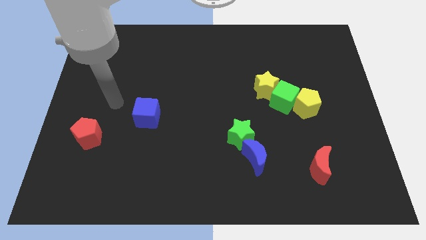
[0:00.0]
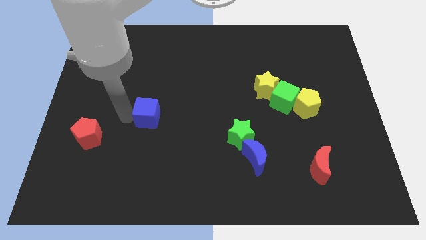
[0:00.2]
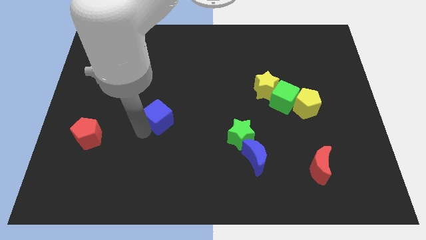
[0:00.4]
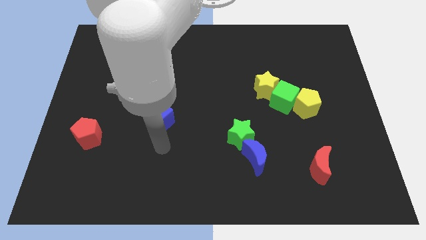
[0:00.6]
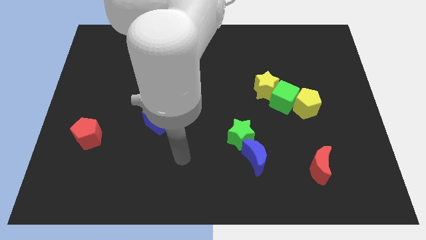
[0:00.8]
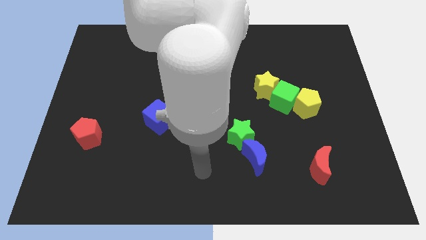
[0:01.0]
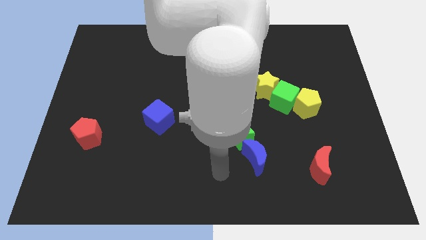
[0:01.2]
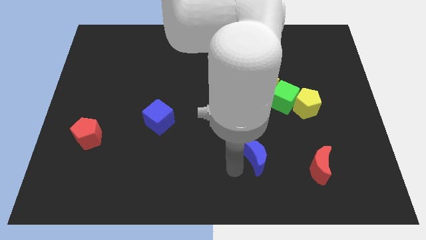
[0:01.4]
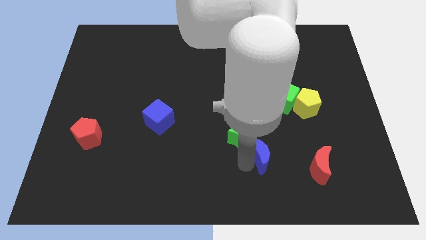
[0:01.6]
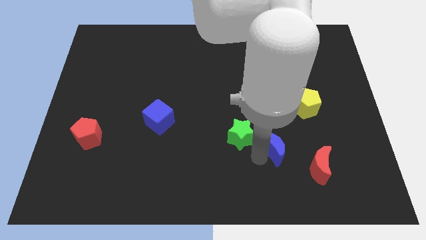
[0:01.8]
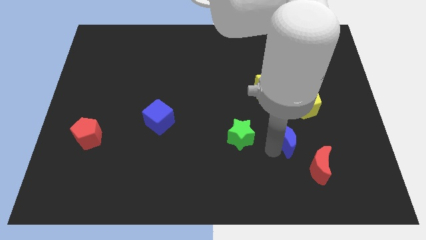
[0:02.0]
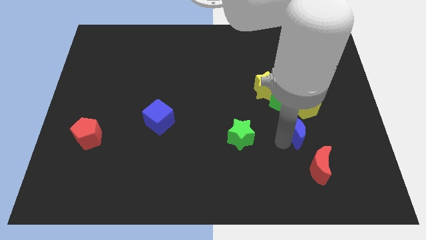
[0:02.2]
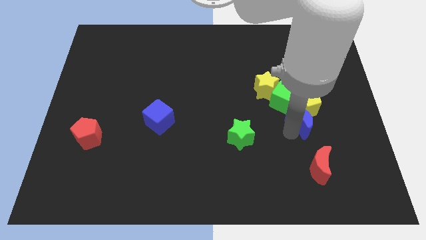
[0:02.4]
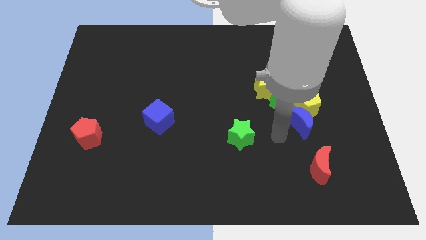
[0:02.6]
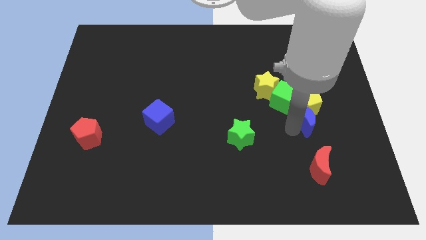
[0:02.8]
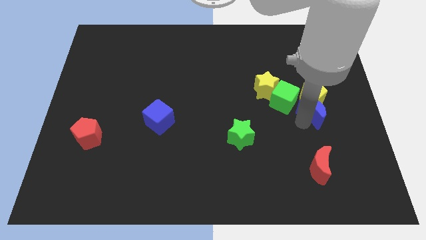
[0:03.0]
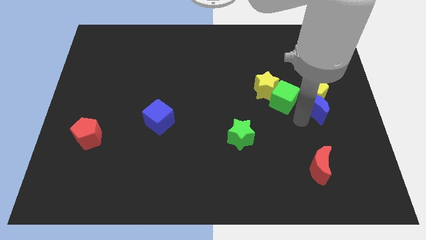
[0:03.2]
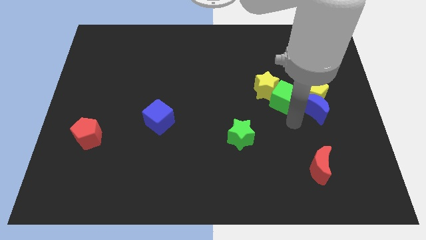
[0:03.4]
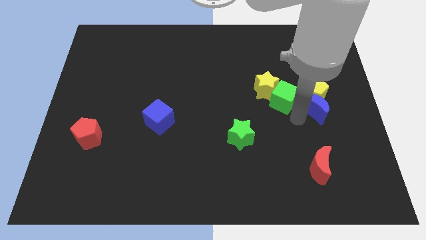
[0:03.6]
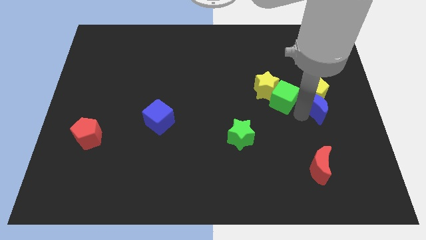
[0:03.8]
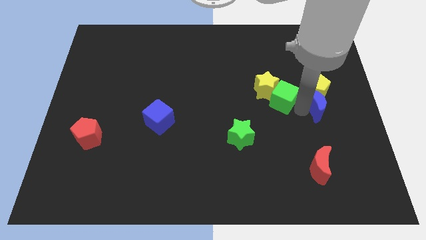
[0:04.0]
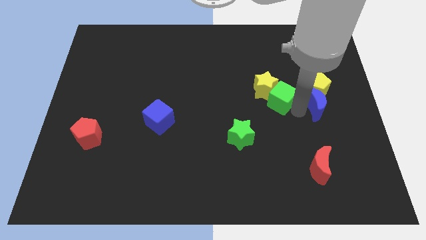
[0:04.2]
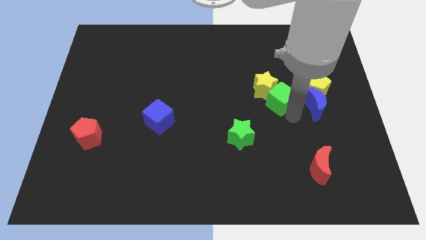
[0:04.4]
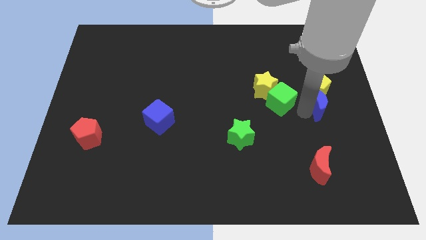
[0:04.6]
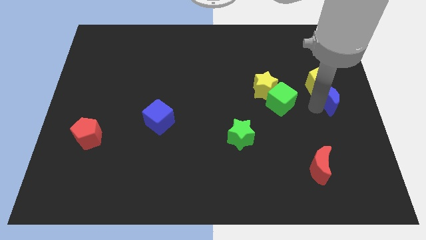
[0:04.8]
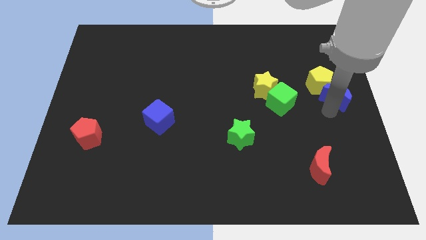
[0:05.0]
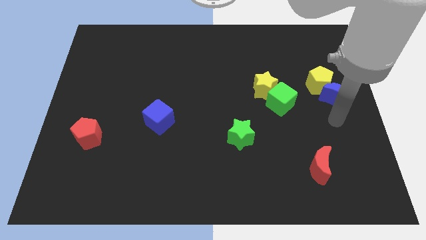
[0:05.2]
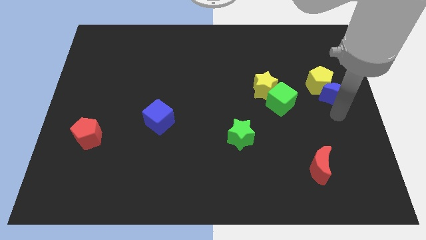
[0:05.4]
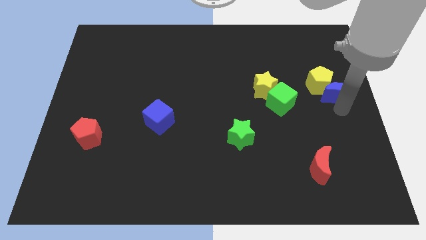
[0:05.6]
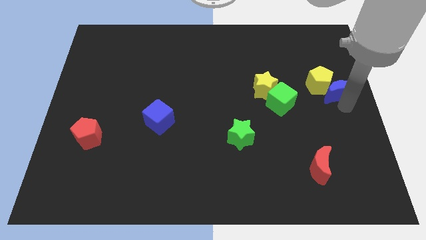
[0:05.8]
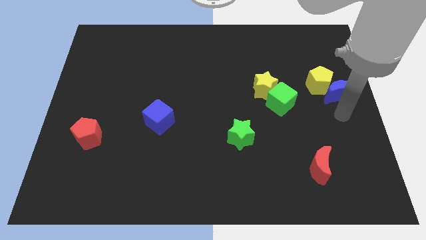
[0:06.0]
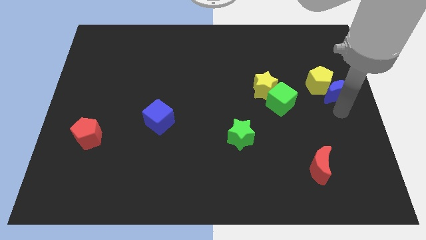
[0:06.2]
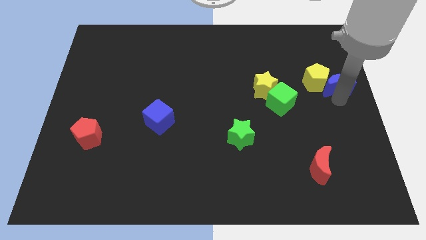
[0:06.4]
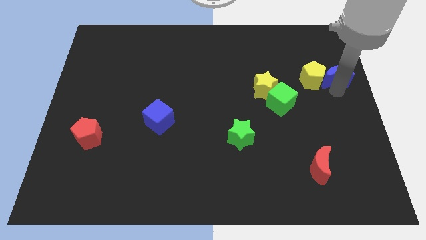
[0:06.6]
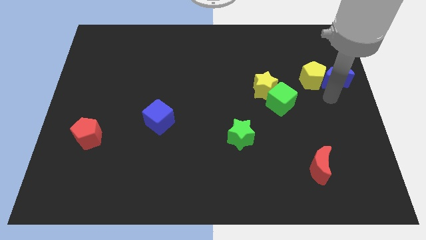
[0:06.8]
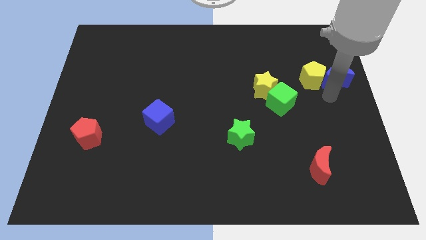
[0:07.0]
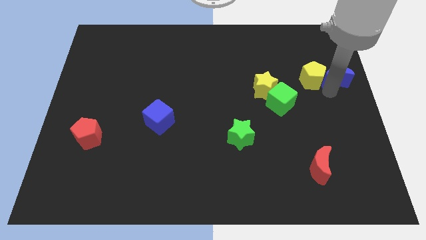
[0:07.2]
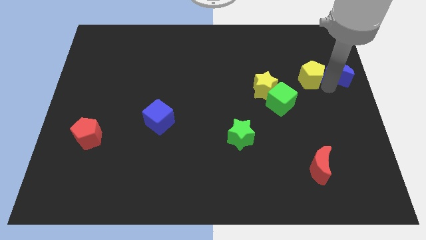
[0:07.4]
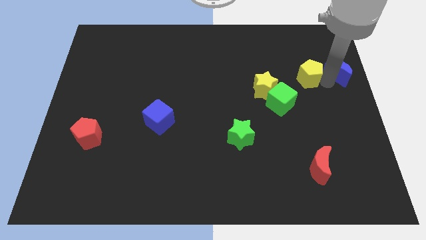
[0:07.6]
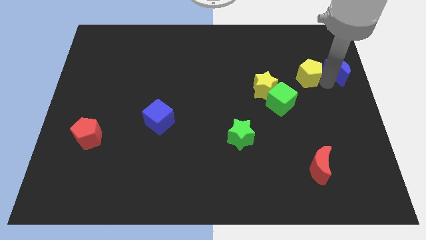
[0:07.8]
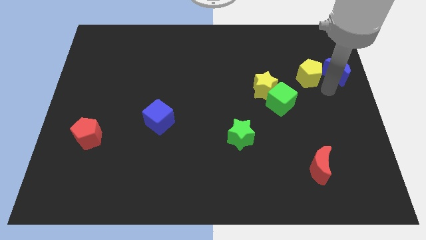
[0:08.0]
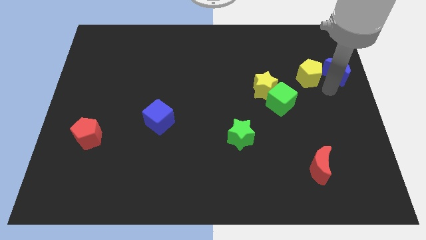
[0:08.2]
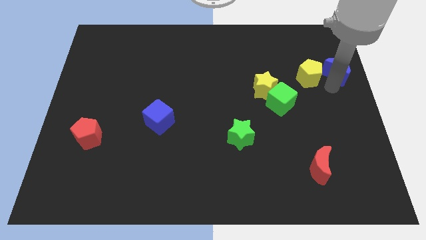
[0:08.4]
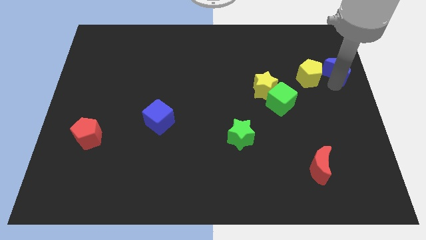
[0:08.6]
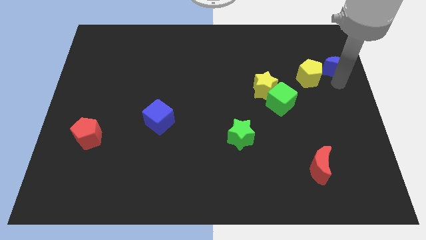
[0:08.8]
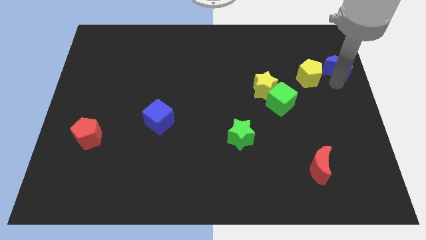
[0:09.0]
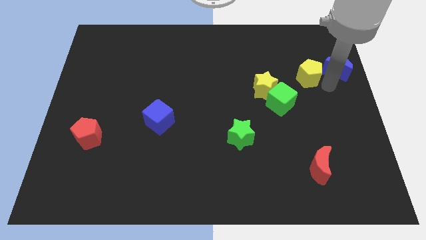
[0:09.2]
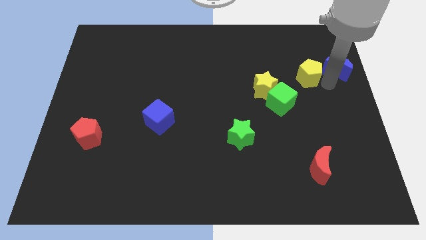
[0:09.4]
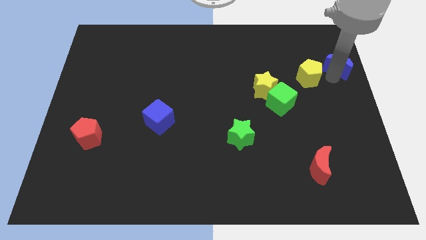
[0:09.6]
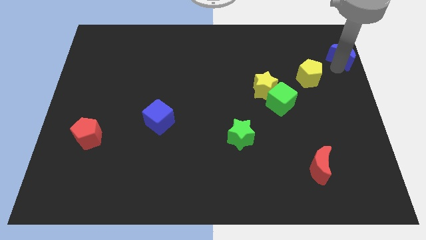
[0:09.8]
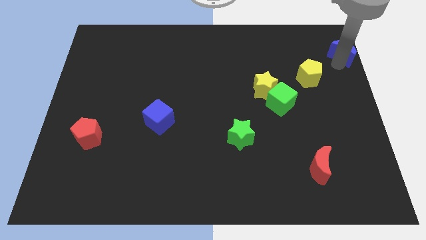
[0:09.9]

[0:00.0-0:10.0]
push the blue moon to the top right

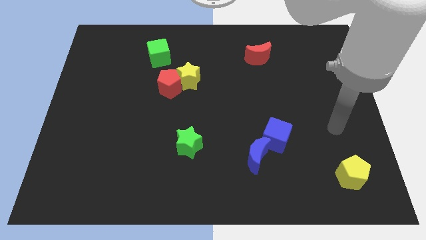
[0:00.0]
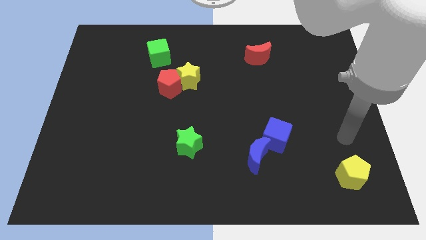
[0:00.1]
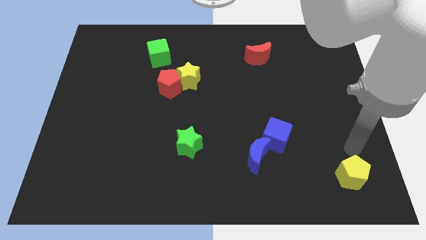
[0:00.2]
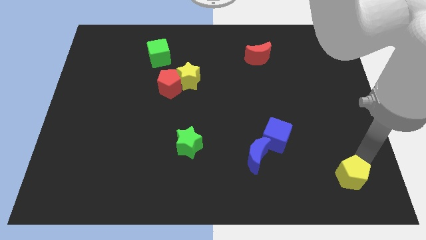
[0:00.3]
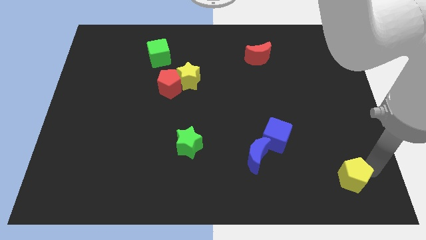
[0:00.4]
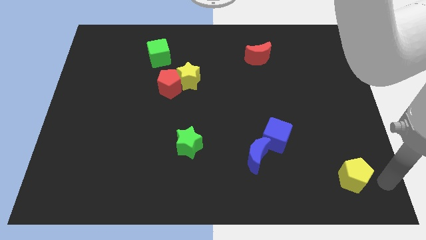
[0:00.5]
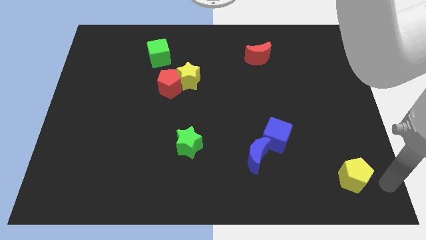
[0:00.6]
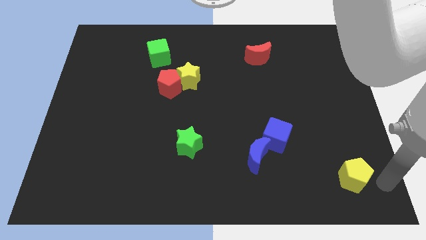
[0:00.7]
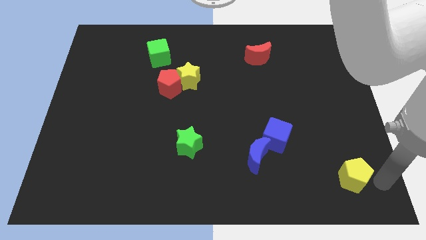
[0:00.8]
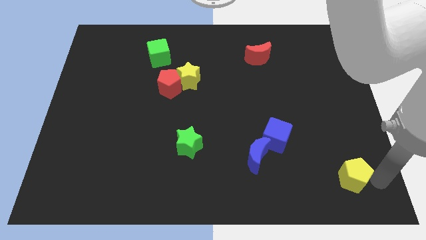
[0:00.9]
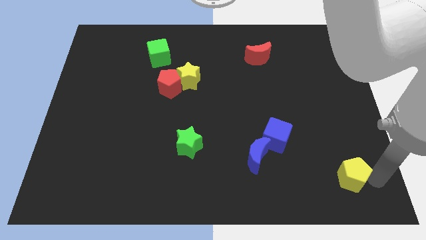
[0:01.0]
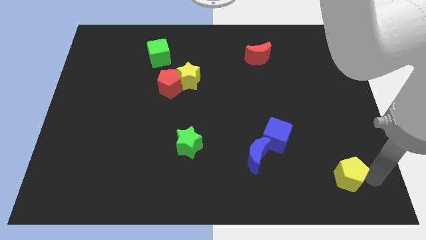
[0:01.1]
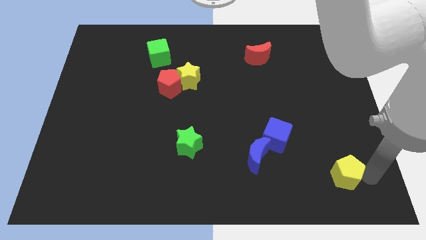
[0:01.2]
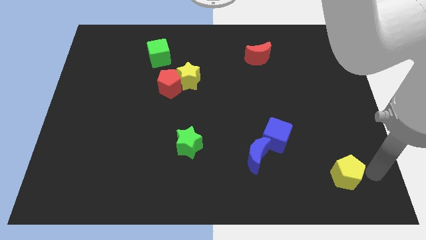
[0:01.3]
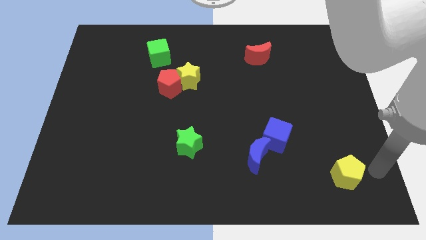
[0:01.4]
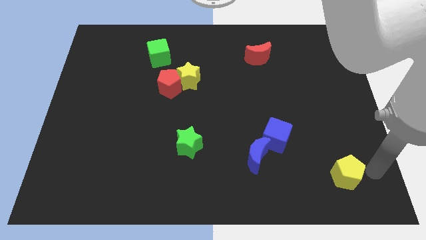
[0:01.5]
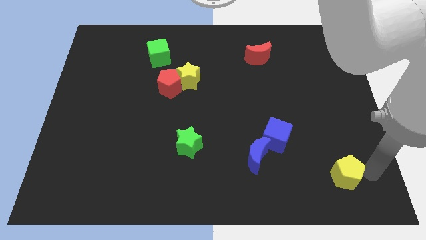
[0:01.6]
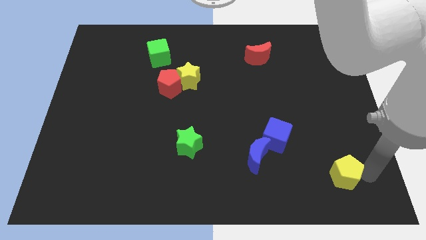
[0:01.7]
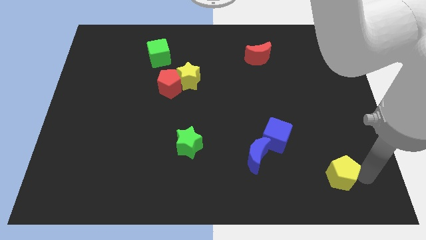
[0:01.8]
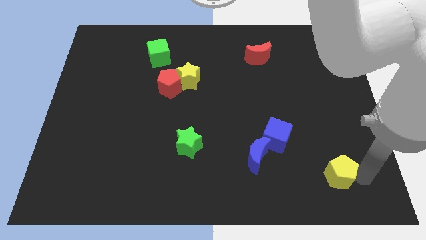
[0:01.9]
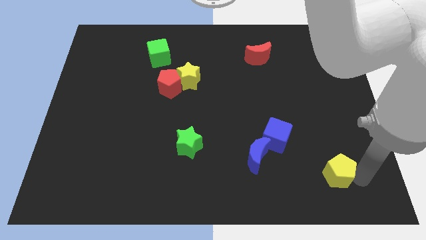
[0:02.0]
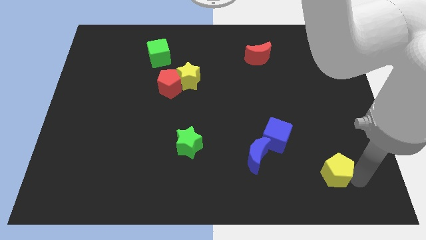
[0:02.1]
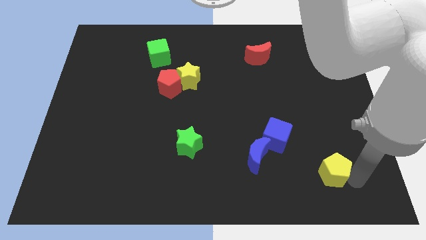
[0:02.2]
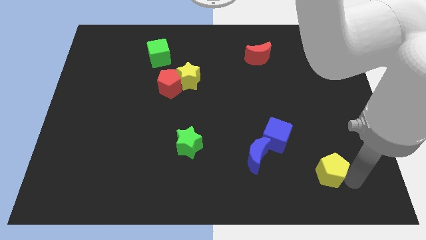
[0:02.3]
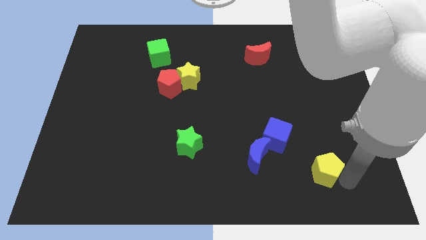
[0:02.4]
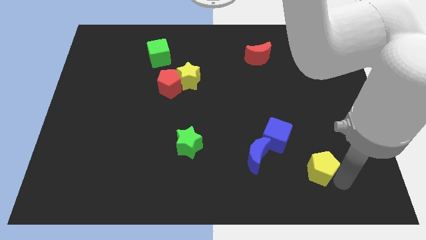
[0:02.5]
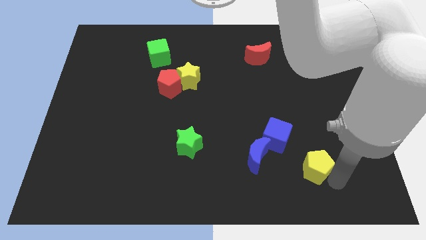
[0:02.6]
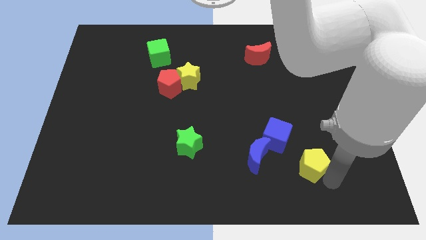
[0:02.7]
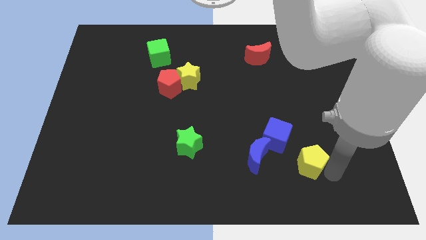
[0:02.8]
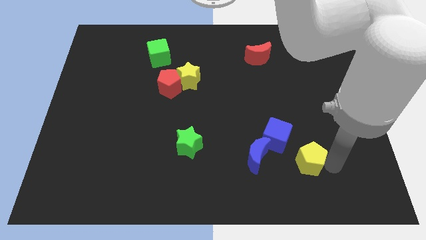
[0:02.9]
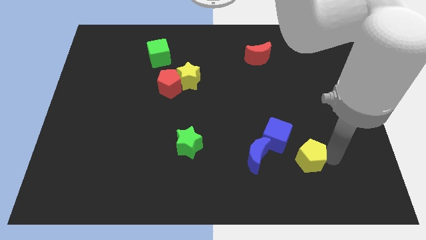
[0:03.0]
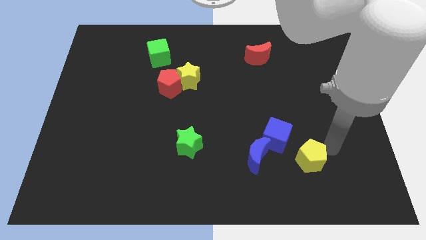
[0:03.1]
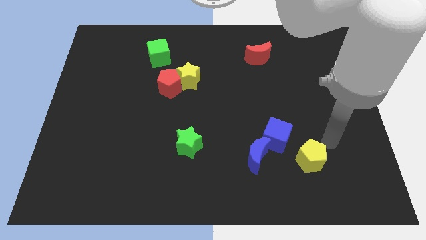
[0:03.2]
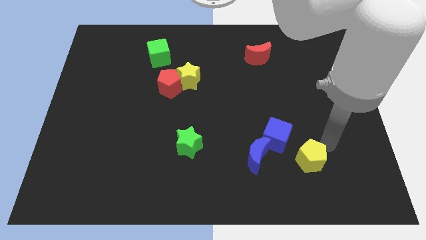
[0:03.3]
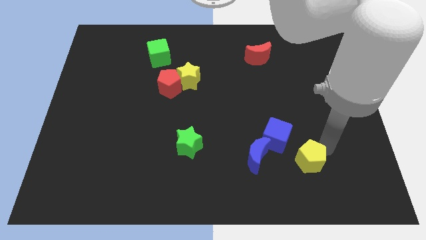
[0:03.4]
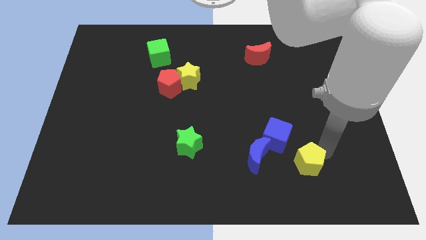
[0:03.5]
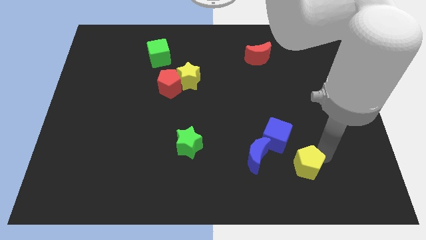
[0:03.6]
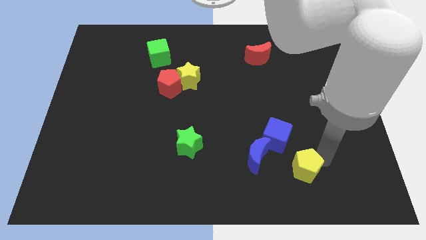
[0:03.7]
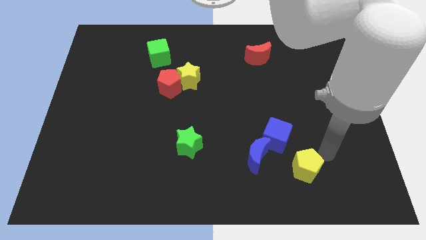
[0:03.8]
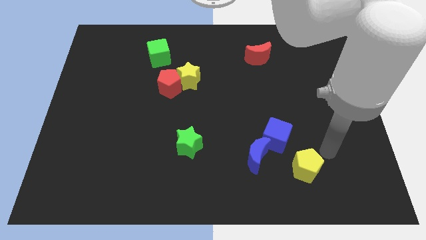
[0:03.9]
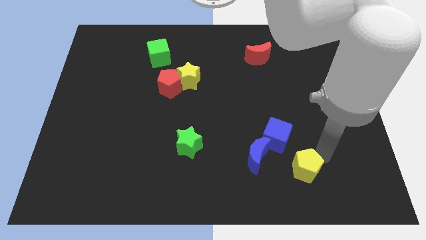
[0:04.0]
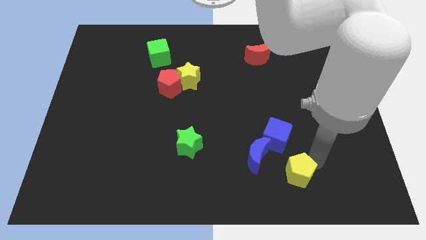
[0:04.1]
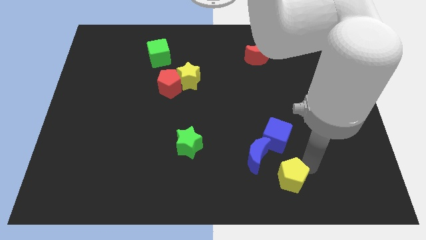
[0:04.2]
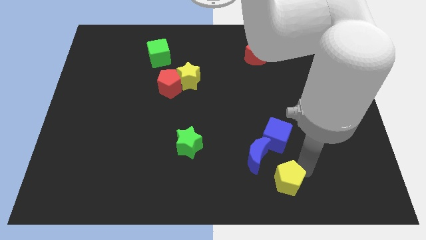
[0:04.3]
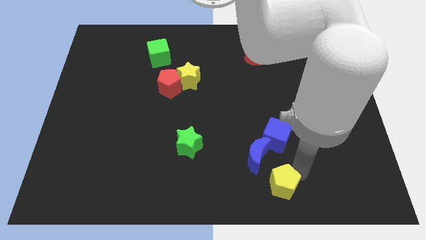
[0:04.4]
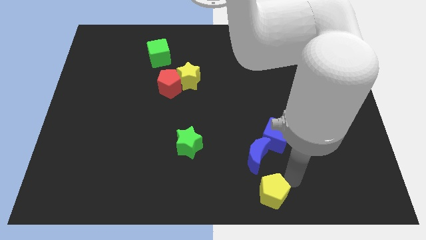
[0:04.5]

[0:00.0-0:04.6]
move the yellow pentagon to the bottom side
